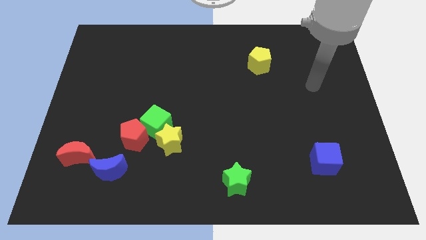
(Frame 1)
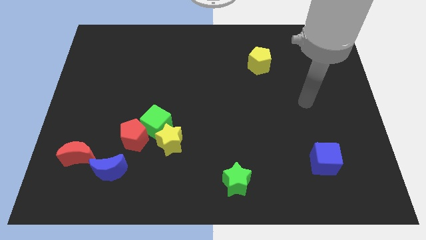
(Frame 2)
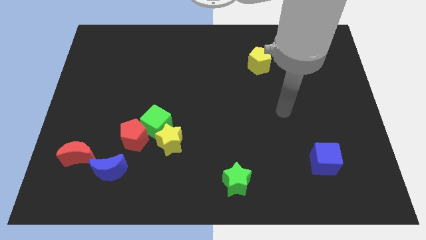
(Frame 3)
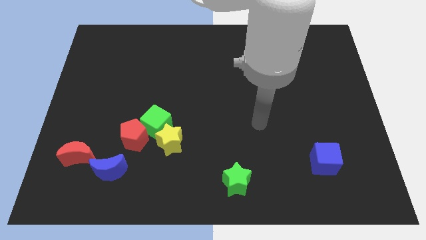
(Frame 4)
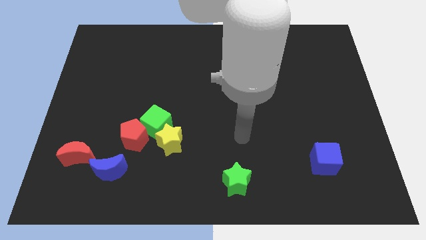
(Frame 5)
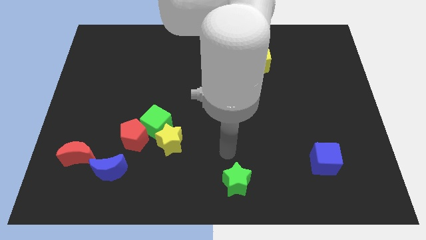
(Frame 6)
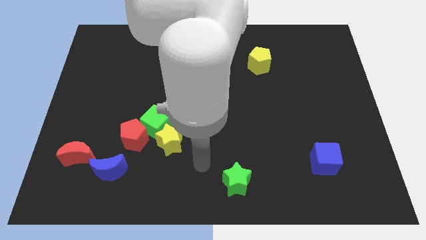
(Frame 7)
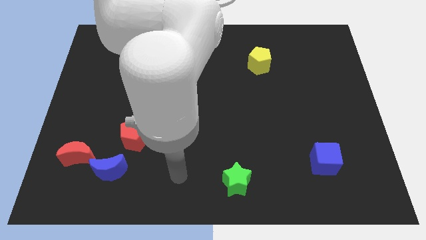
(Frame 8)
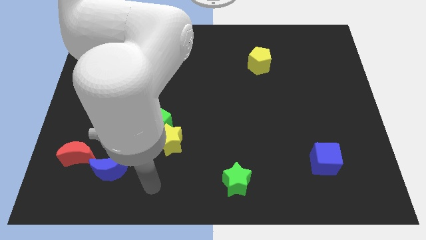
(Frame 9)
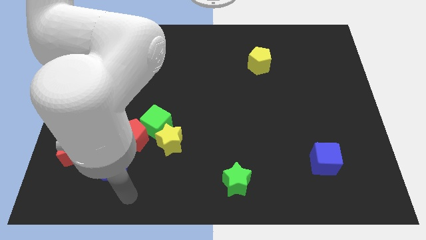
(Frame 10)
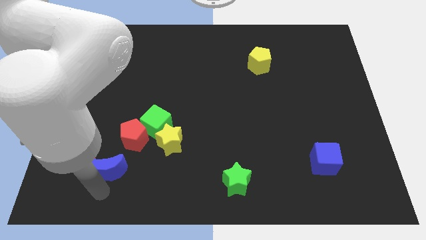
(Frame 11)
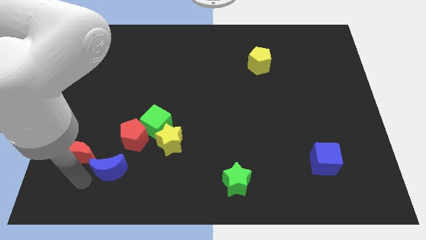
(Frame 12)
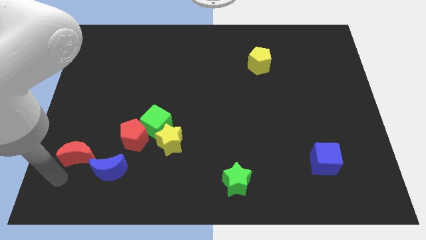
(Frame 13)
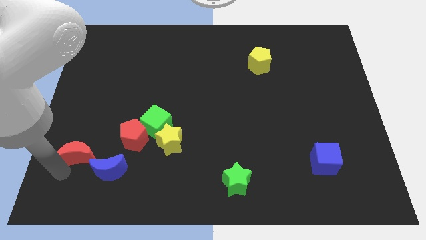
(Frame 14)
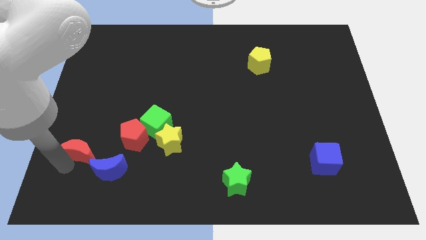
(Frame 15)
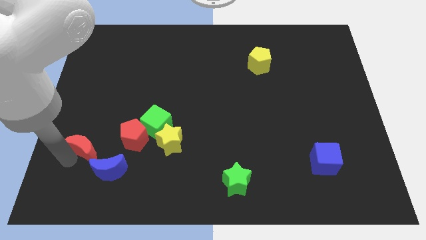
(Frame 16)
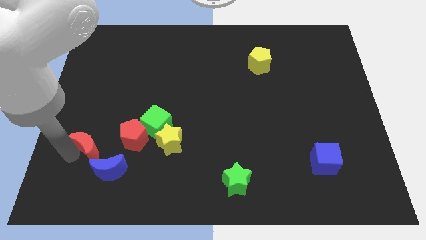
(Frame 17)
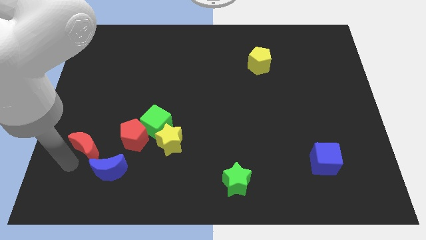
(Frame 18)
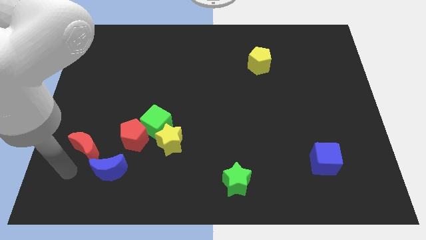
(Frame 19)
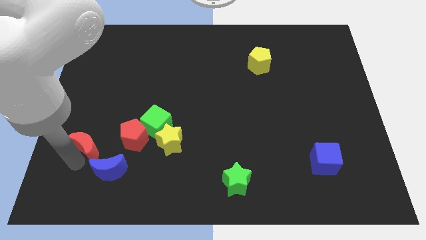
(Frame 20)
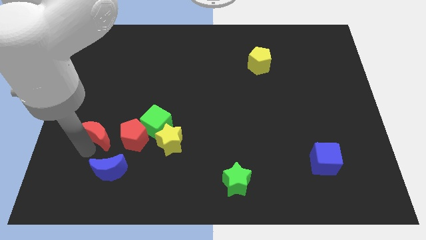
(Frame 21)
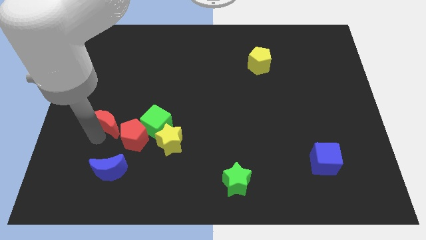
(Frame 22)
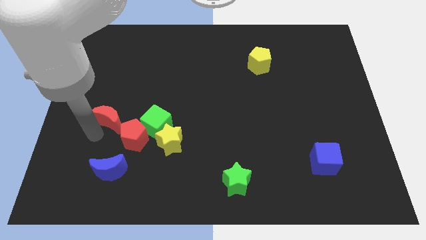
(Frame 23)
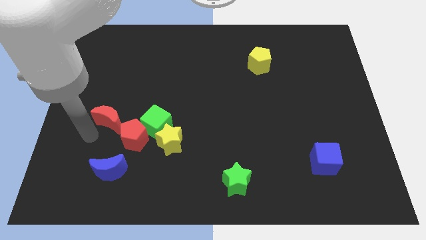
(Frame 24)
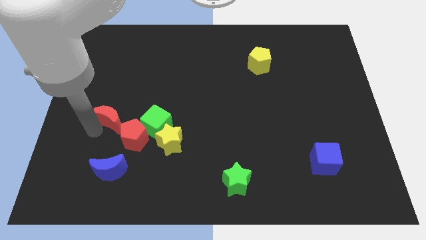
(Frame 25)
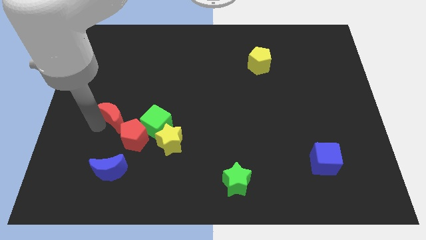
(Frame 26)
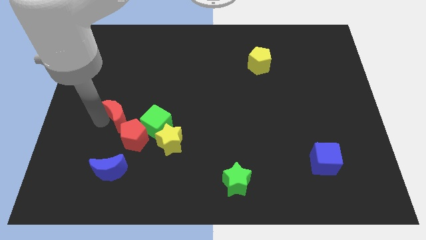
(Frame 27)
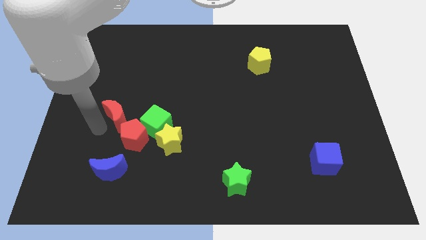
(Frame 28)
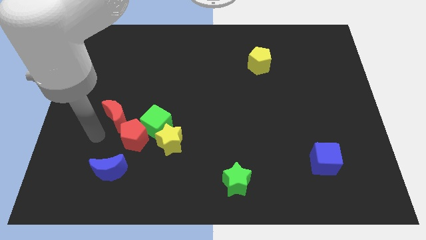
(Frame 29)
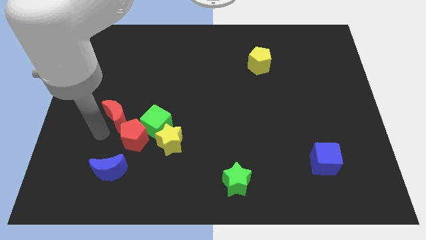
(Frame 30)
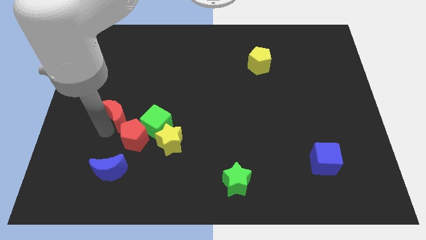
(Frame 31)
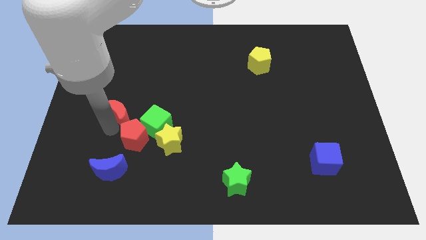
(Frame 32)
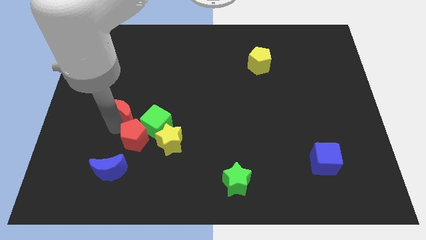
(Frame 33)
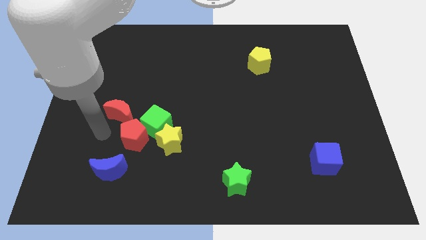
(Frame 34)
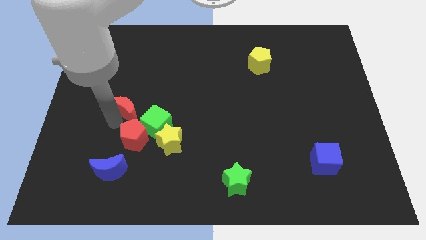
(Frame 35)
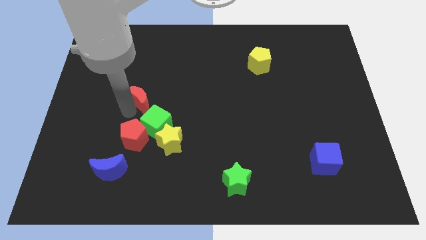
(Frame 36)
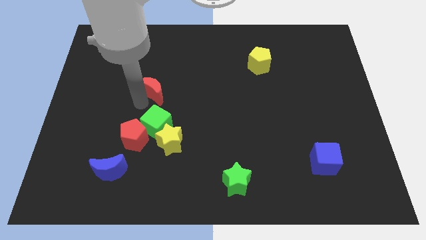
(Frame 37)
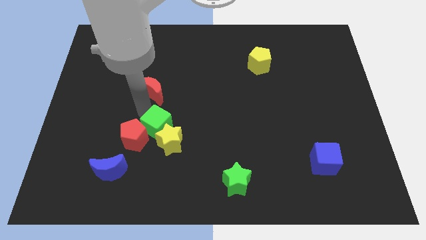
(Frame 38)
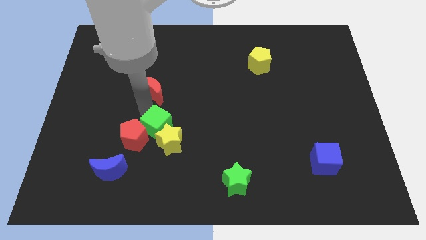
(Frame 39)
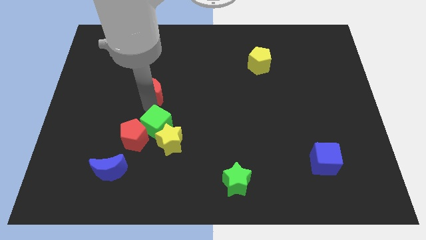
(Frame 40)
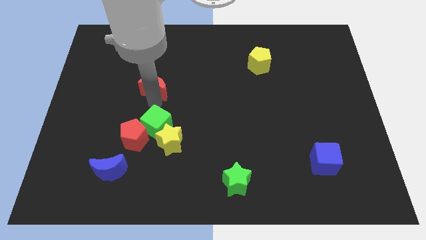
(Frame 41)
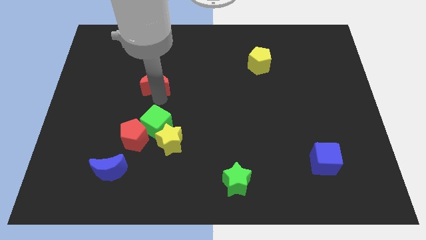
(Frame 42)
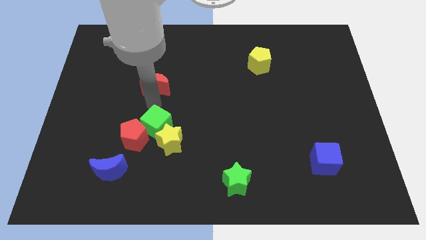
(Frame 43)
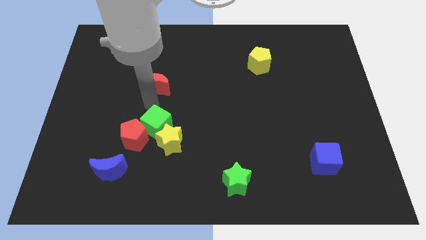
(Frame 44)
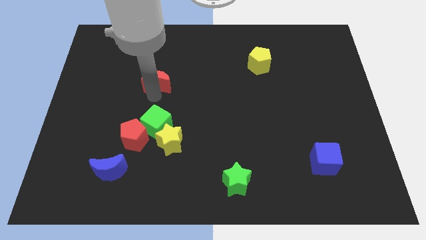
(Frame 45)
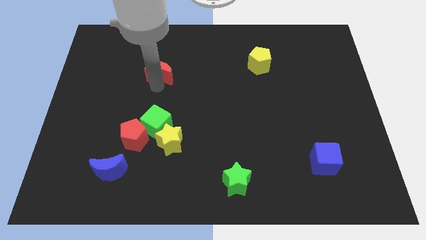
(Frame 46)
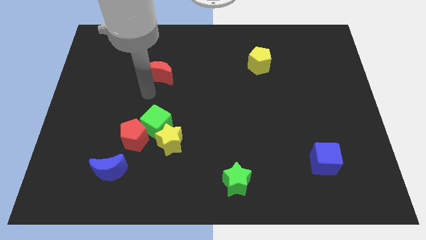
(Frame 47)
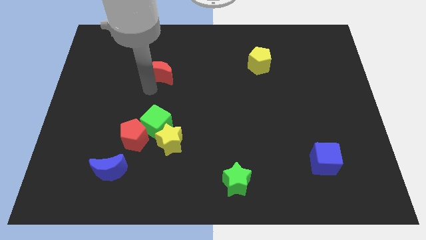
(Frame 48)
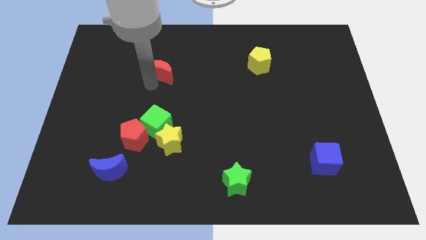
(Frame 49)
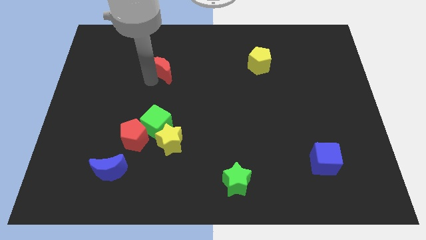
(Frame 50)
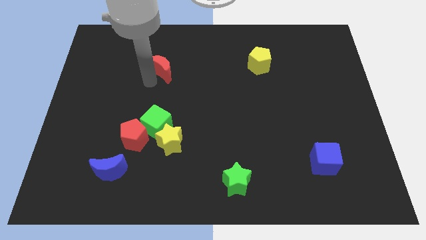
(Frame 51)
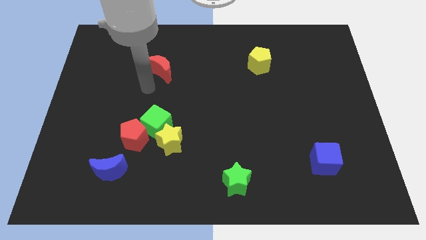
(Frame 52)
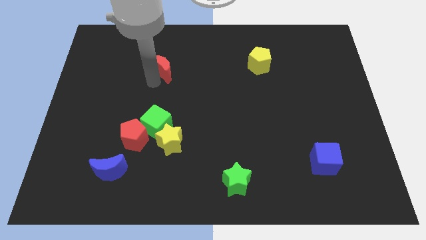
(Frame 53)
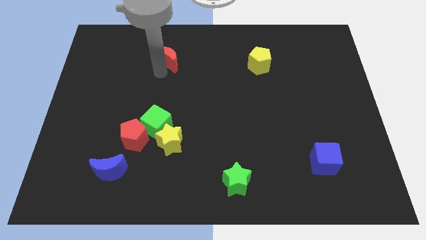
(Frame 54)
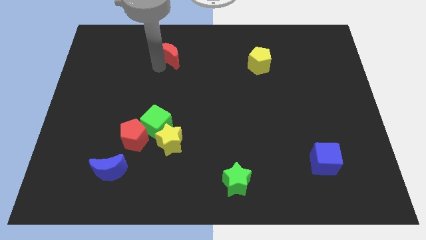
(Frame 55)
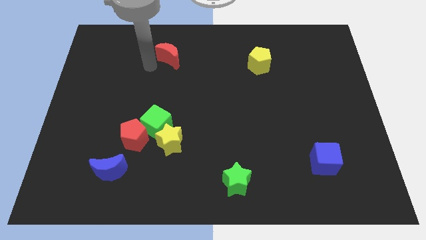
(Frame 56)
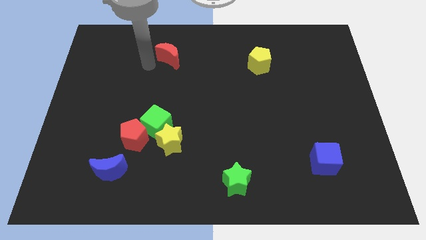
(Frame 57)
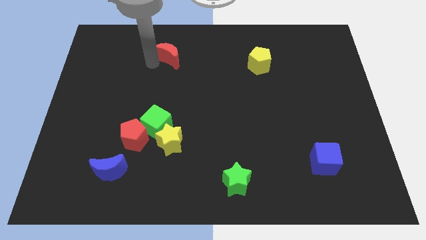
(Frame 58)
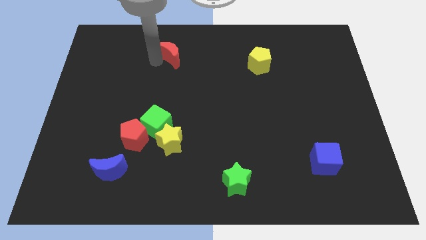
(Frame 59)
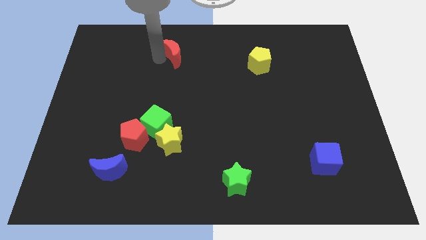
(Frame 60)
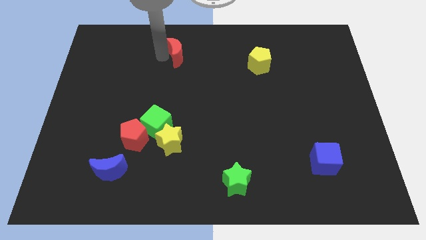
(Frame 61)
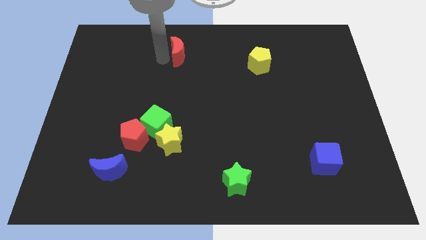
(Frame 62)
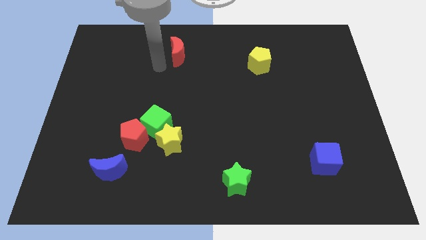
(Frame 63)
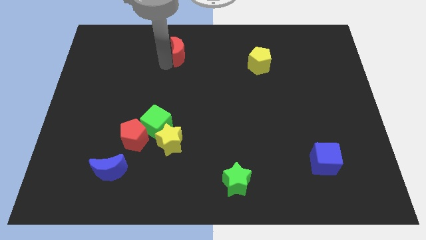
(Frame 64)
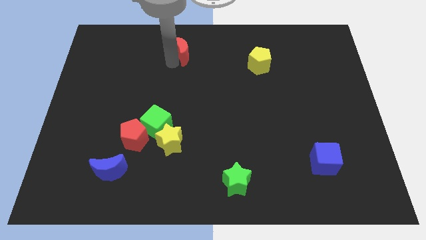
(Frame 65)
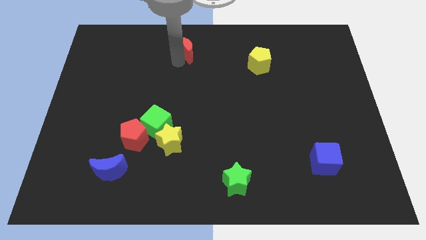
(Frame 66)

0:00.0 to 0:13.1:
put the red moon to the top
